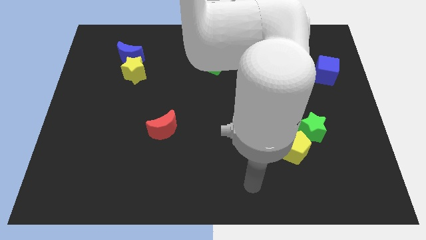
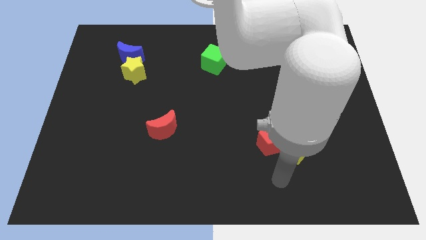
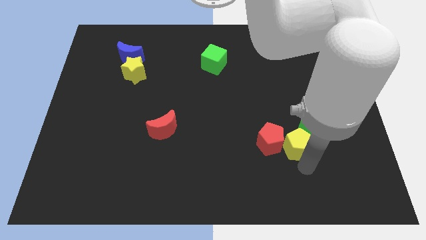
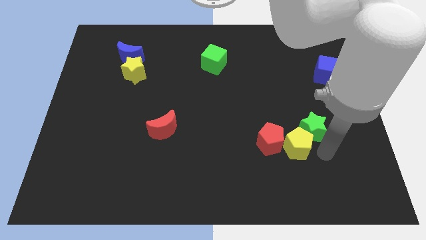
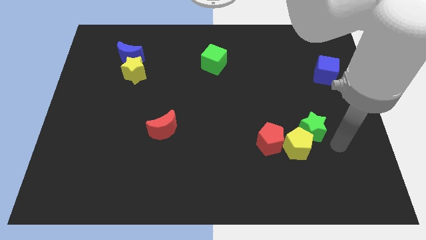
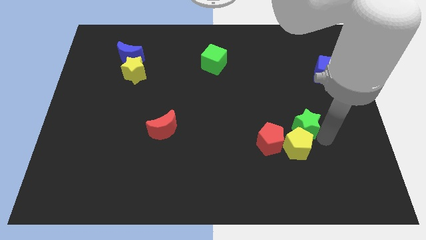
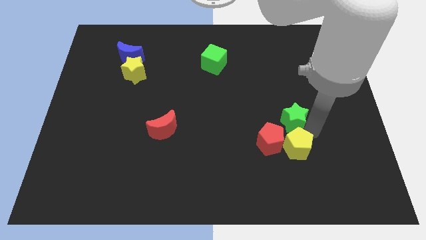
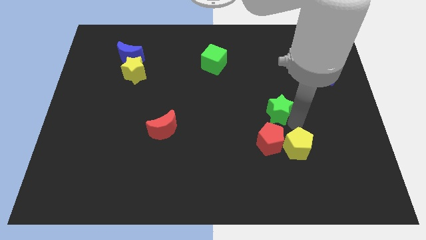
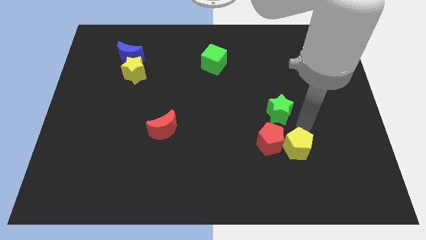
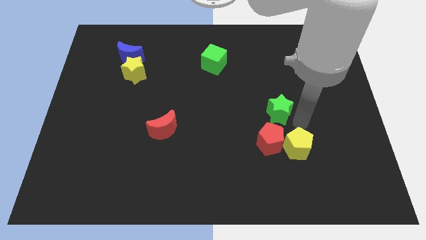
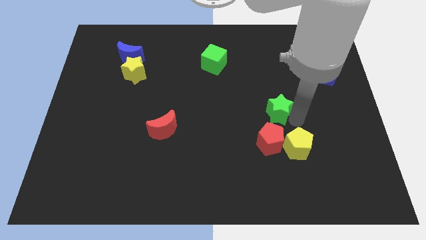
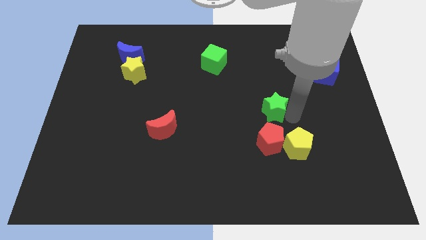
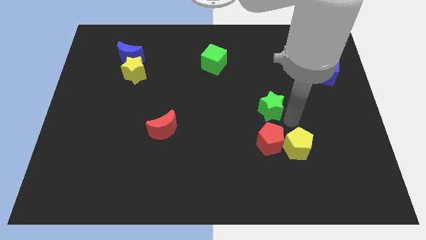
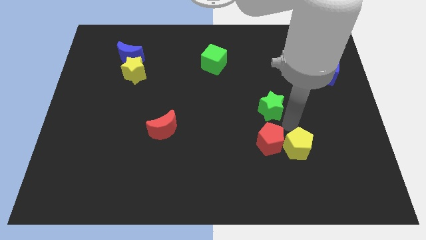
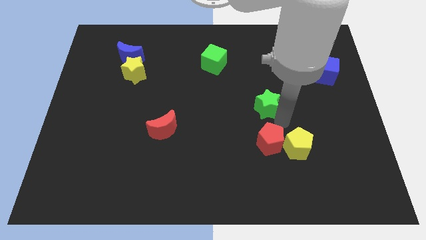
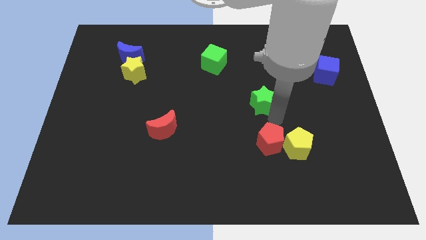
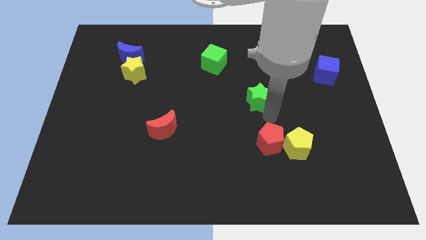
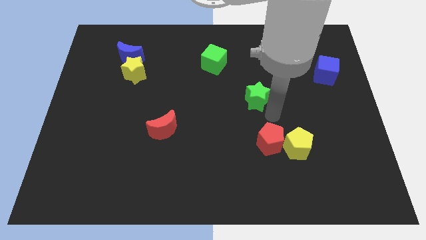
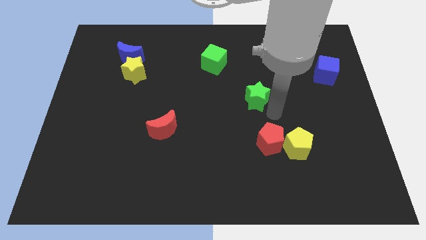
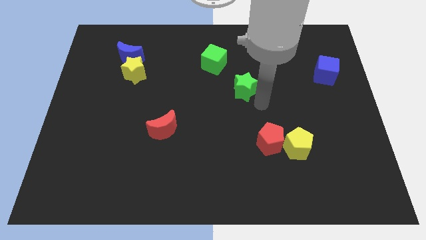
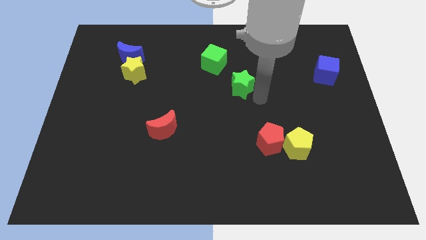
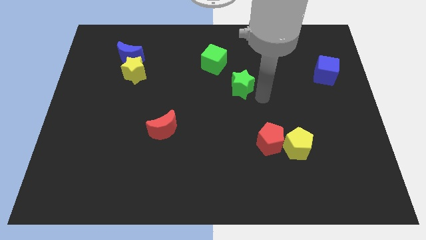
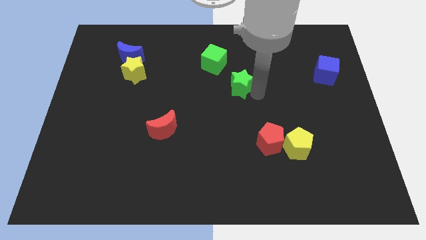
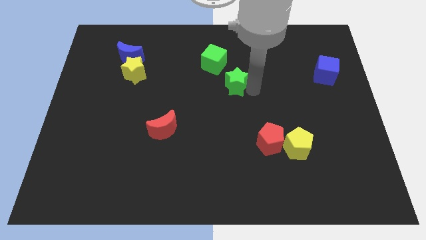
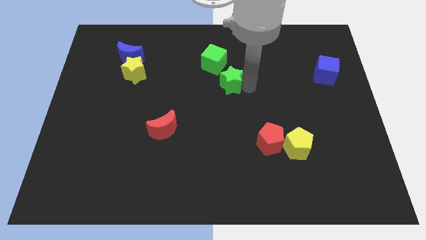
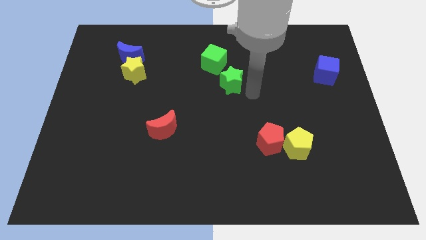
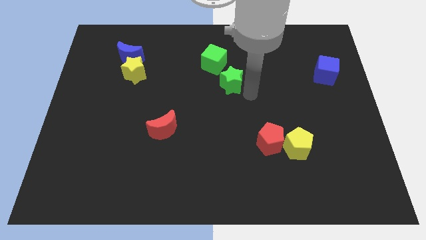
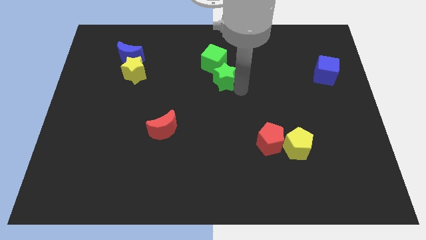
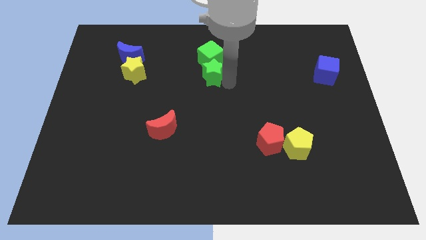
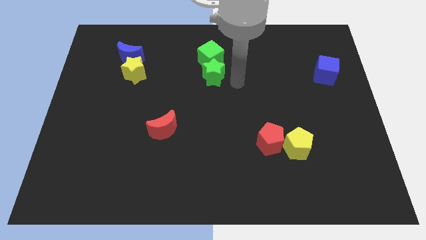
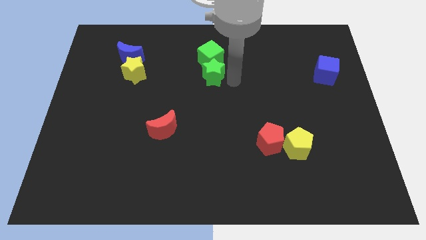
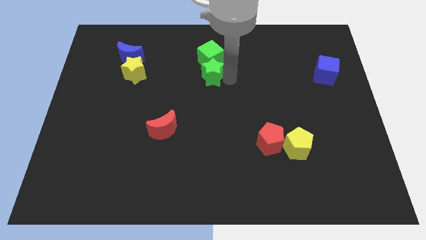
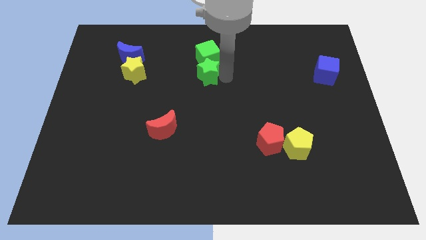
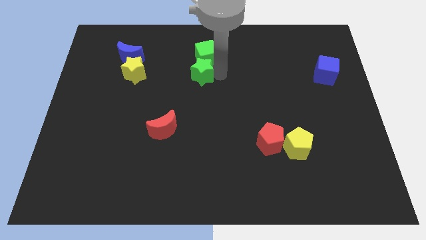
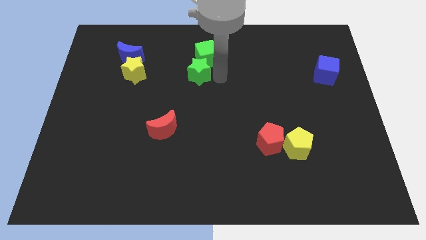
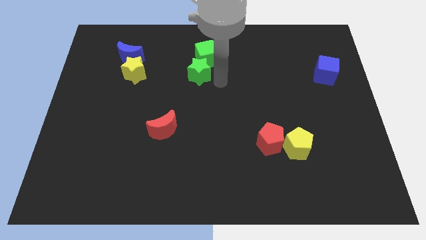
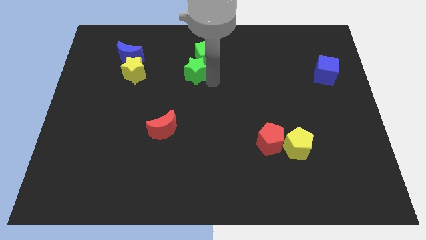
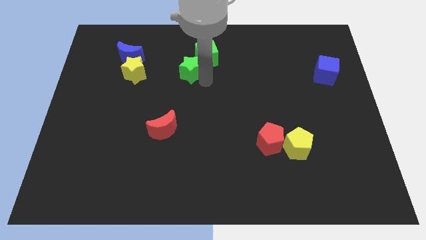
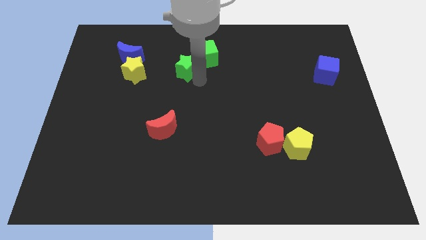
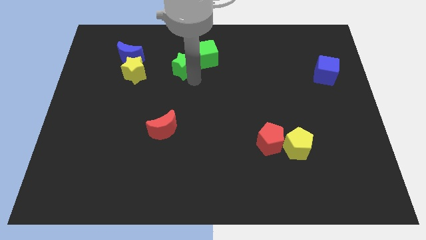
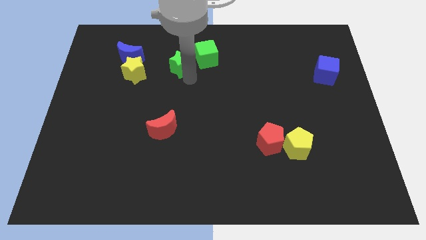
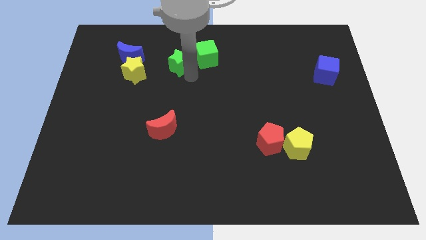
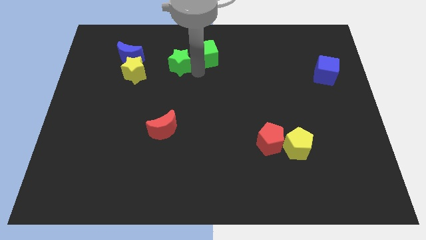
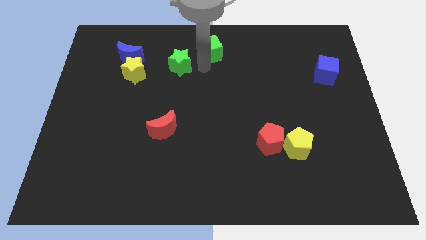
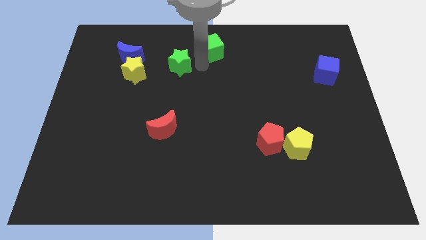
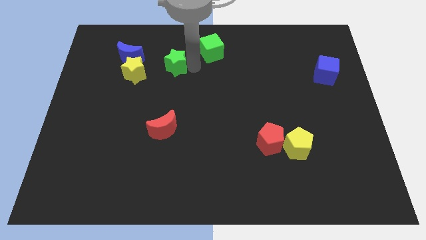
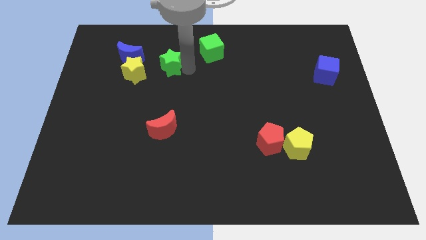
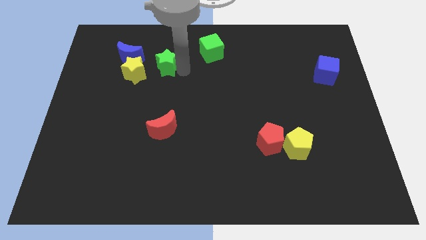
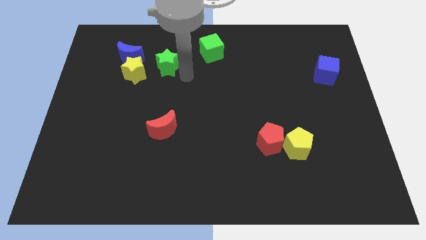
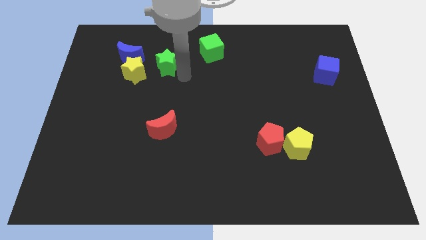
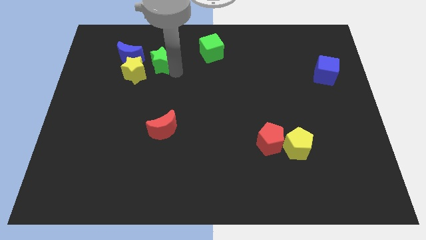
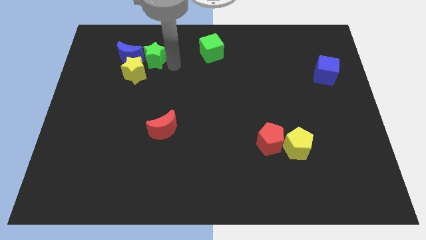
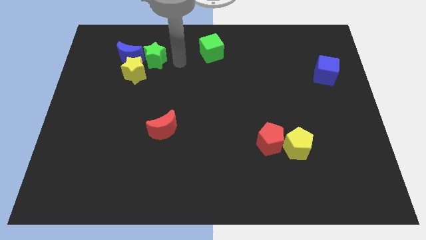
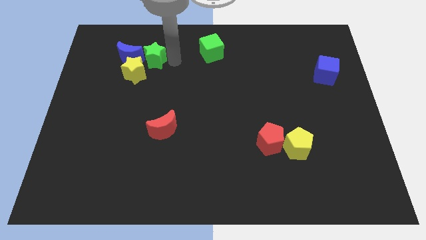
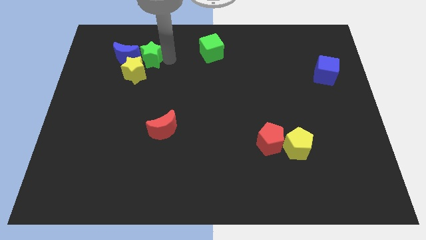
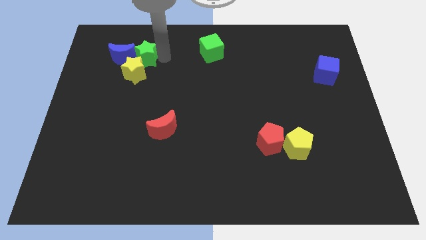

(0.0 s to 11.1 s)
put the green star to the blue moon

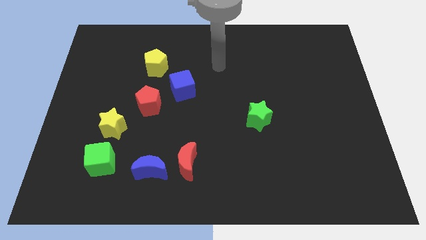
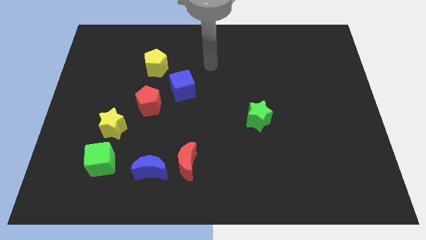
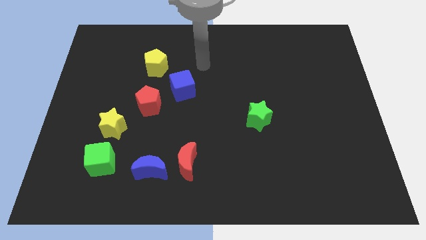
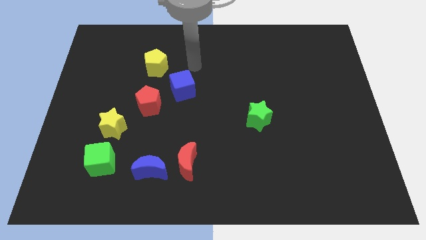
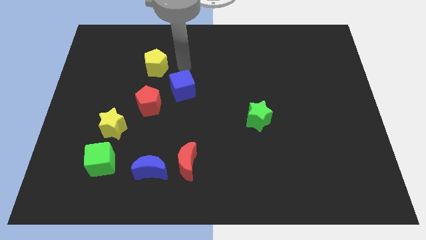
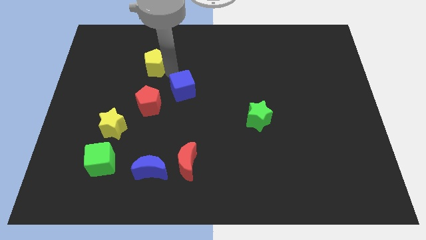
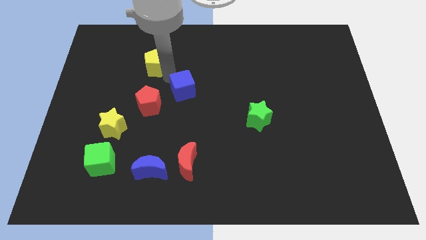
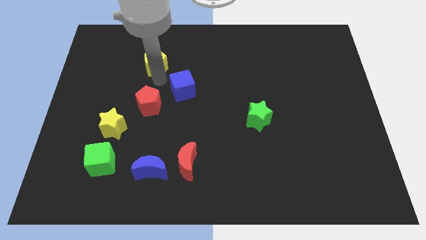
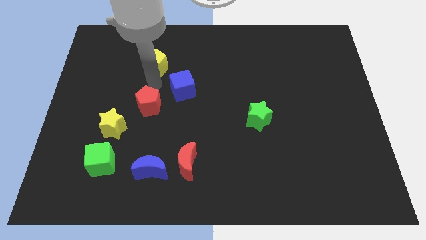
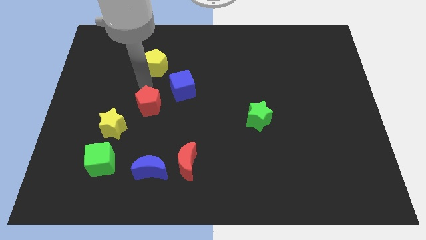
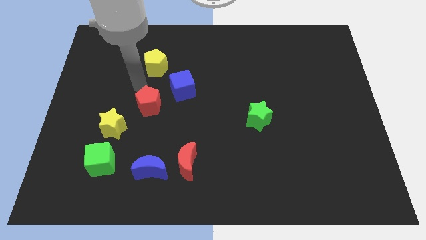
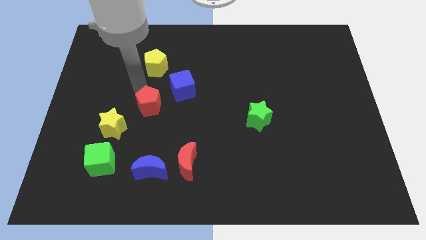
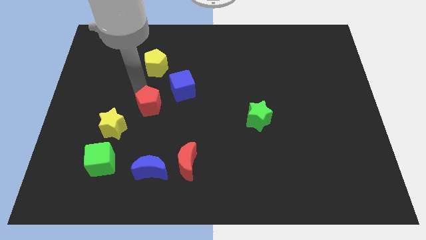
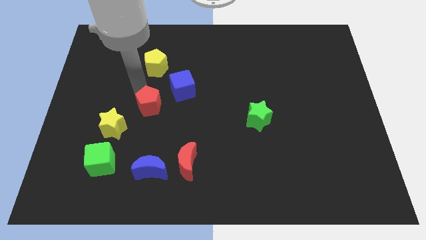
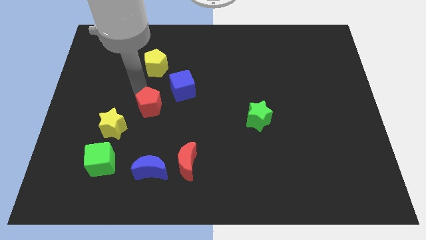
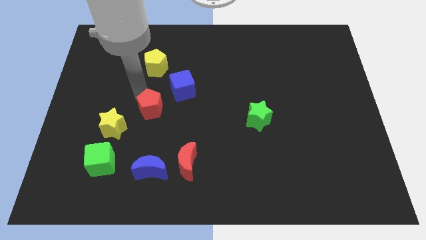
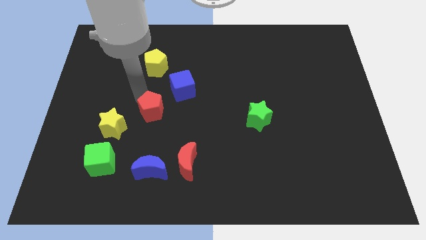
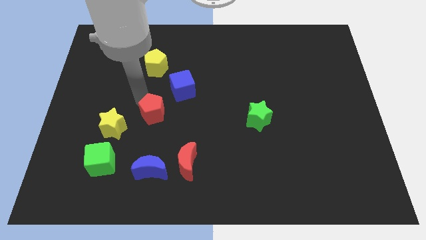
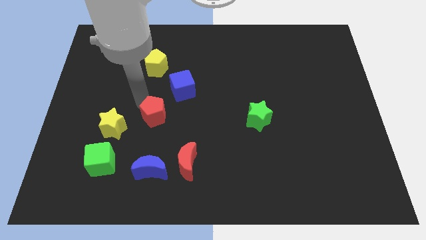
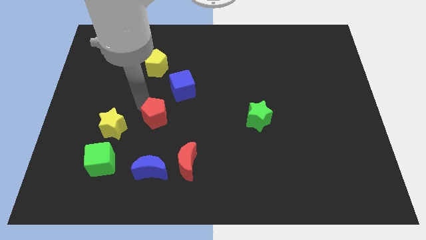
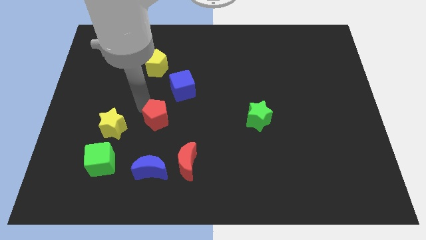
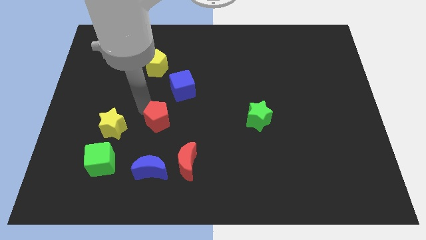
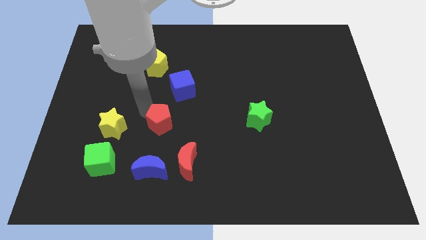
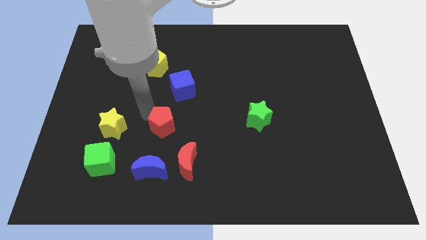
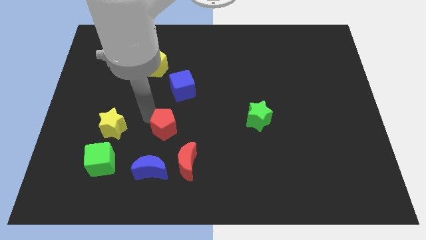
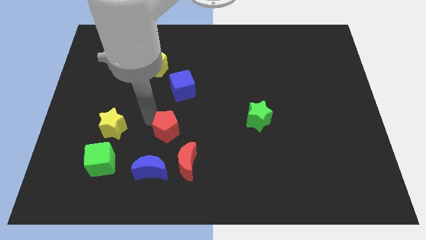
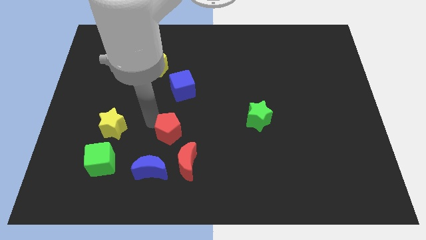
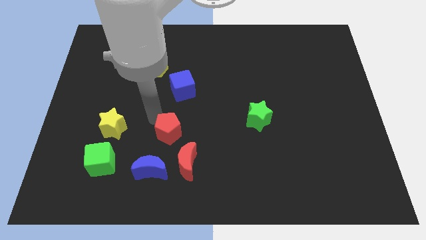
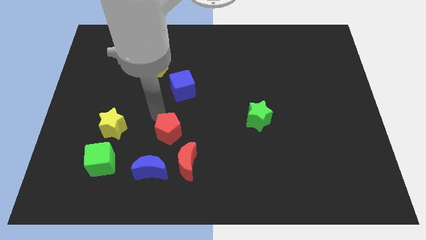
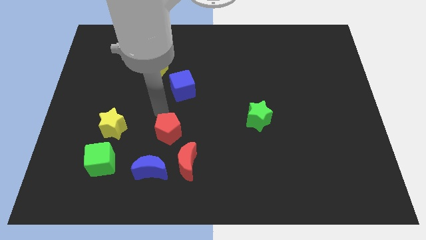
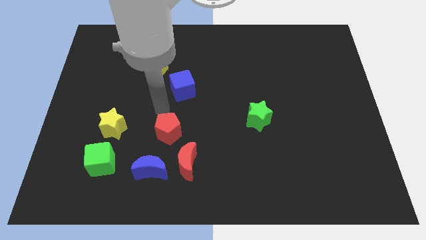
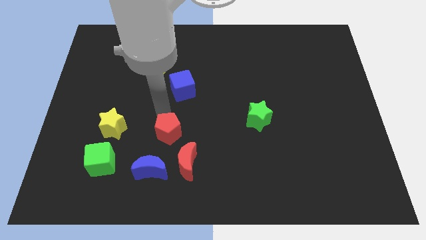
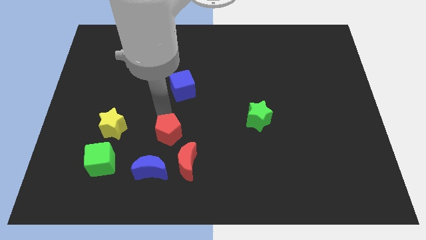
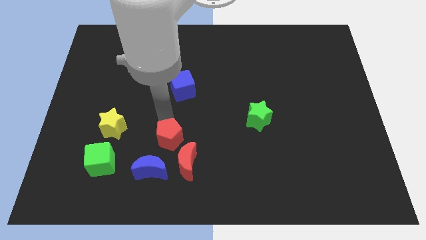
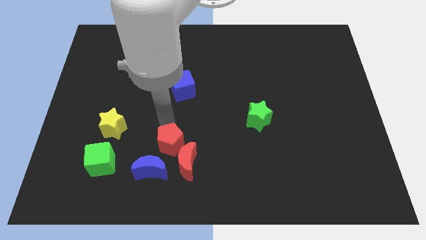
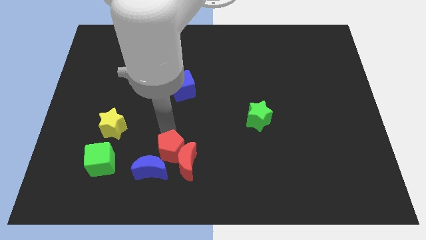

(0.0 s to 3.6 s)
move the red pentagon next to the red moon
